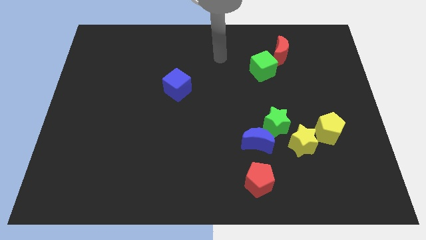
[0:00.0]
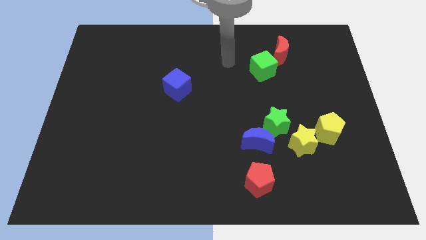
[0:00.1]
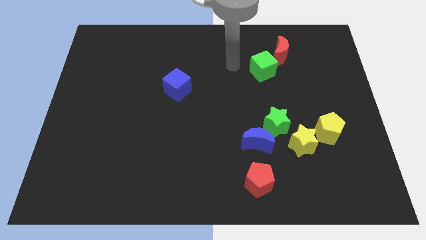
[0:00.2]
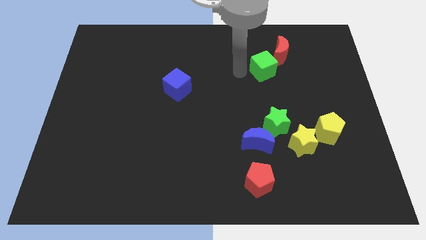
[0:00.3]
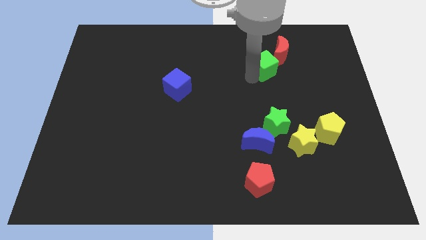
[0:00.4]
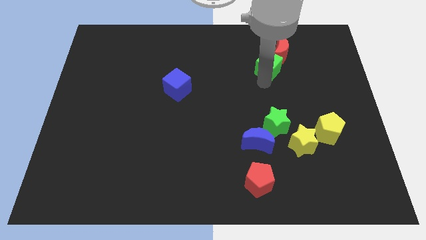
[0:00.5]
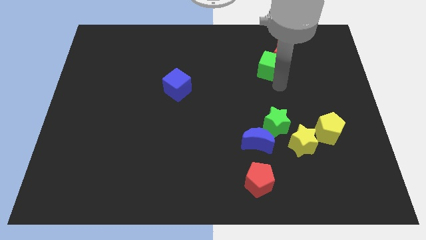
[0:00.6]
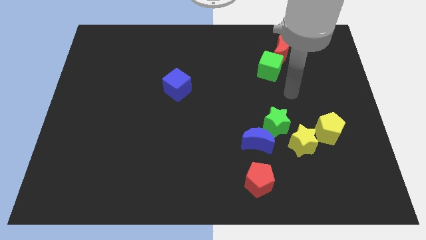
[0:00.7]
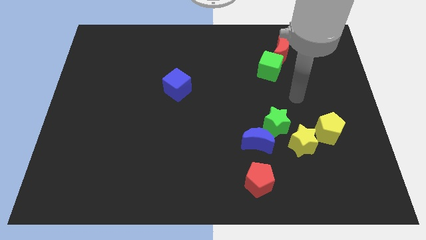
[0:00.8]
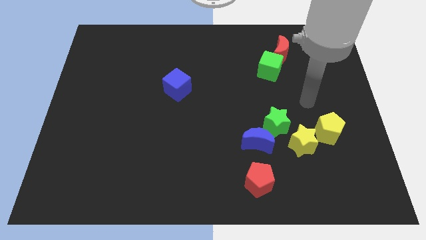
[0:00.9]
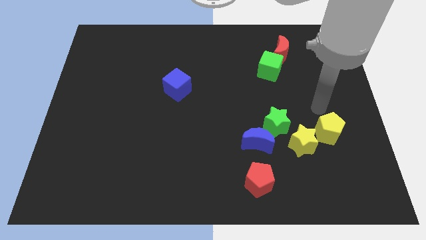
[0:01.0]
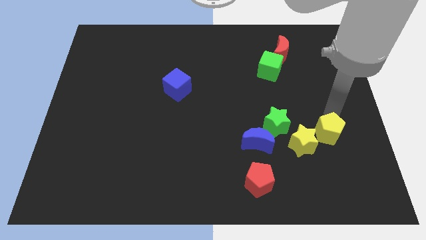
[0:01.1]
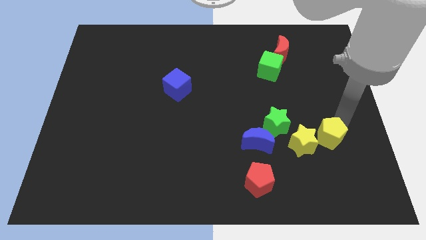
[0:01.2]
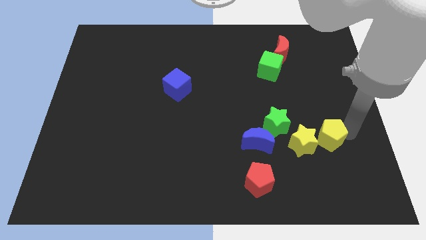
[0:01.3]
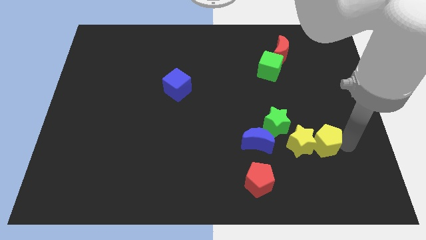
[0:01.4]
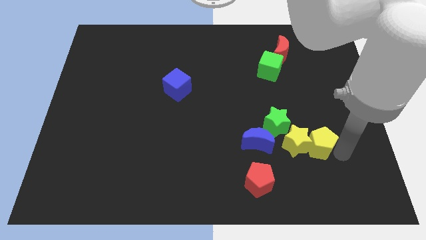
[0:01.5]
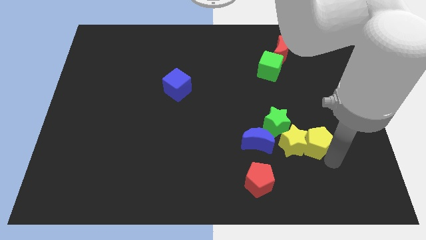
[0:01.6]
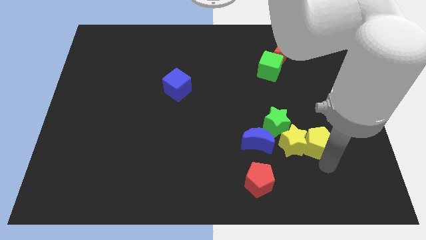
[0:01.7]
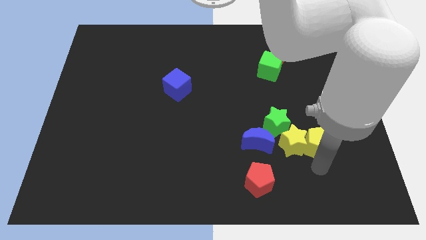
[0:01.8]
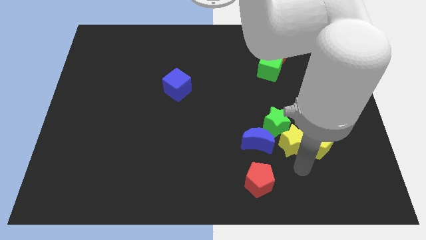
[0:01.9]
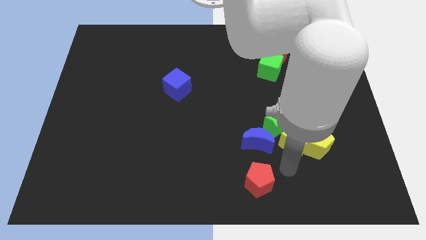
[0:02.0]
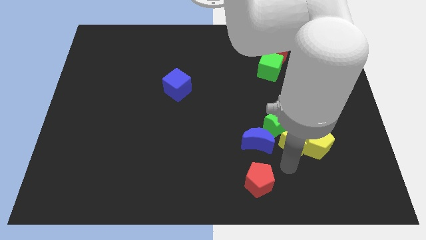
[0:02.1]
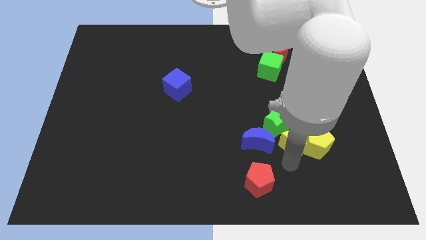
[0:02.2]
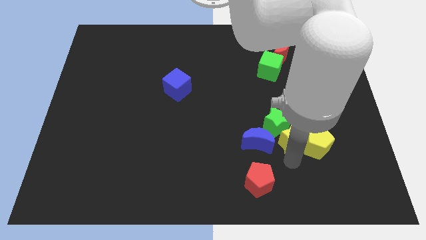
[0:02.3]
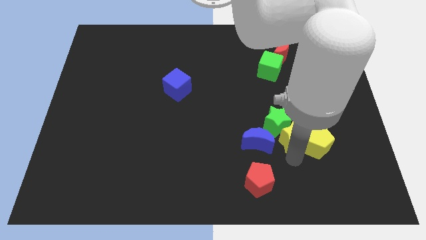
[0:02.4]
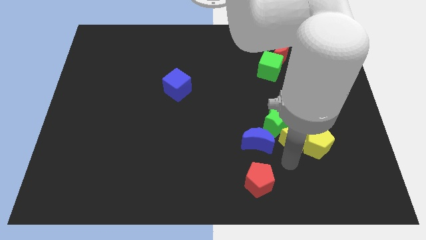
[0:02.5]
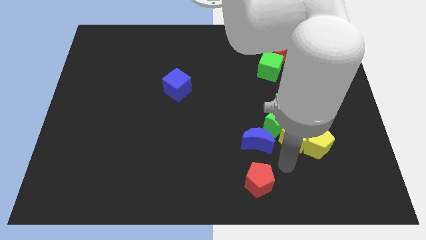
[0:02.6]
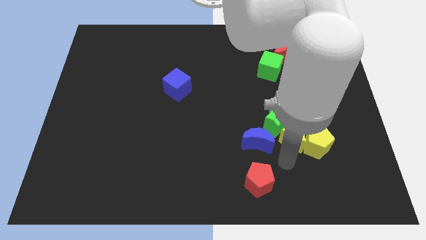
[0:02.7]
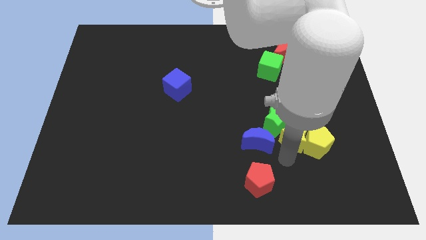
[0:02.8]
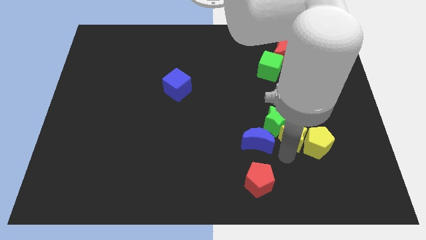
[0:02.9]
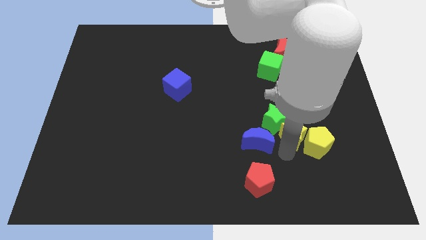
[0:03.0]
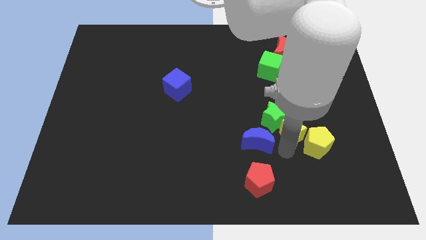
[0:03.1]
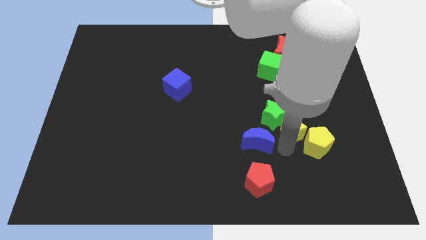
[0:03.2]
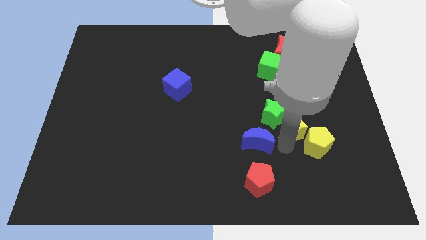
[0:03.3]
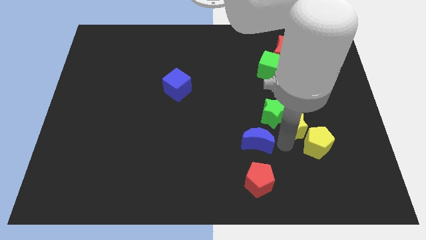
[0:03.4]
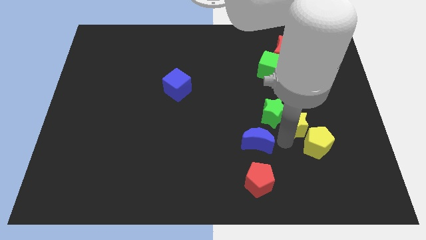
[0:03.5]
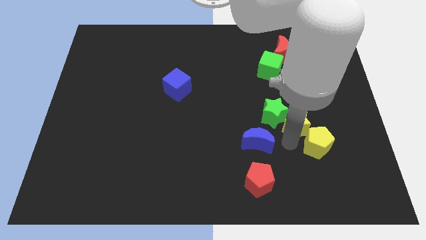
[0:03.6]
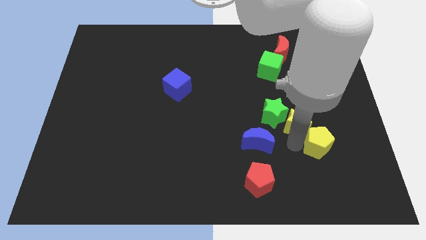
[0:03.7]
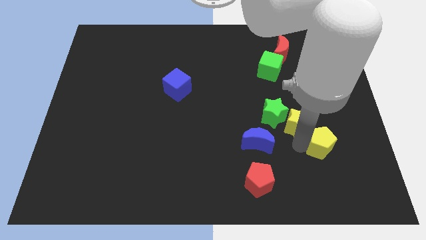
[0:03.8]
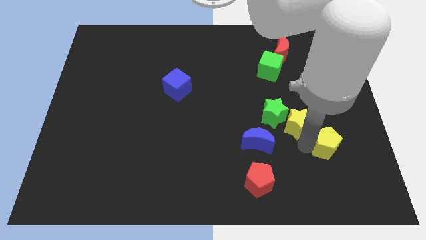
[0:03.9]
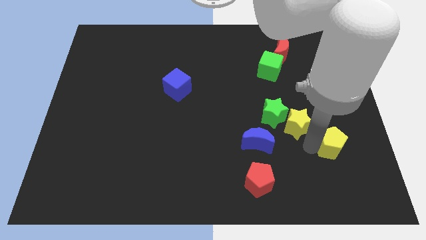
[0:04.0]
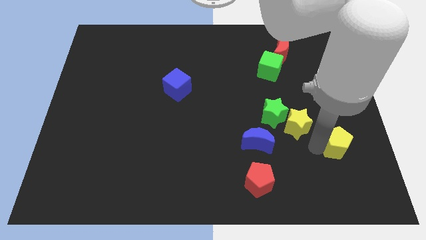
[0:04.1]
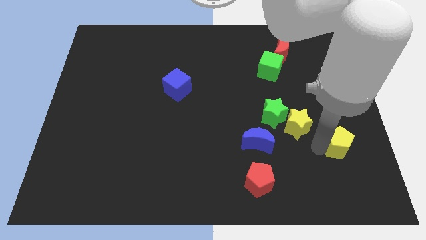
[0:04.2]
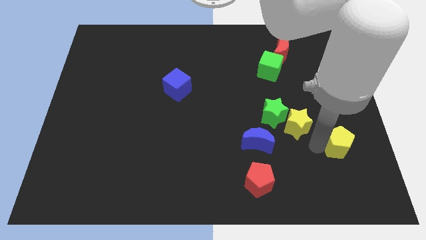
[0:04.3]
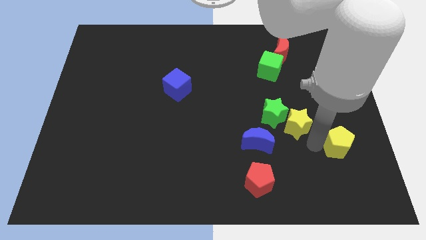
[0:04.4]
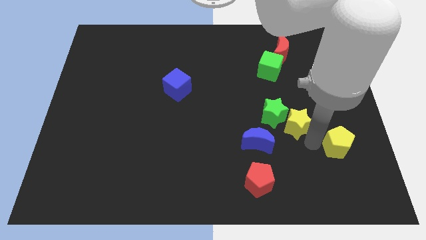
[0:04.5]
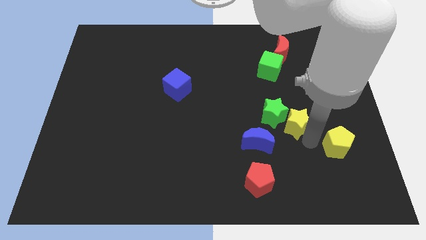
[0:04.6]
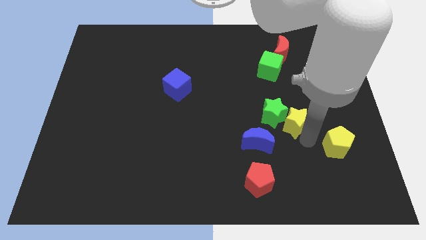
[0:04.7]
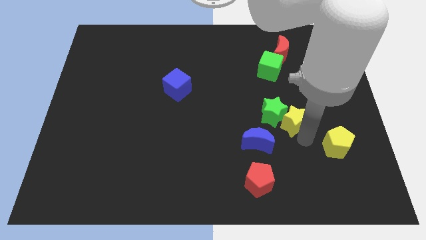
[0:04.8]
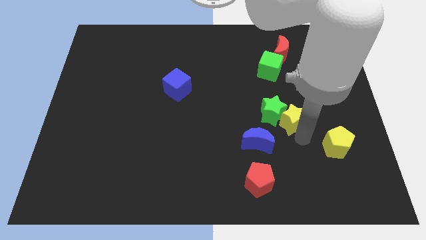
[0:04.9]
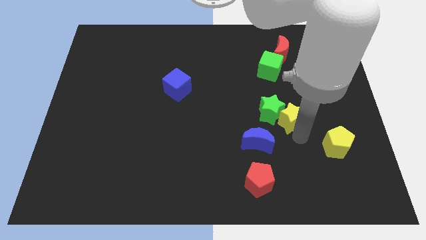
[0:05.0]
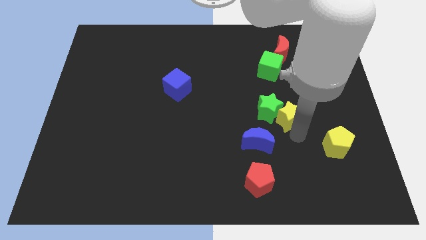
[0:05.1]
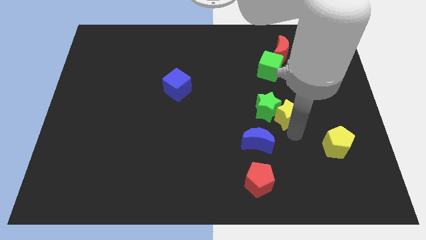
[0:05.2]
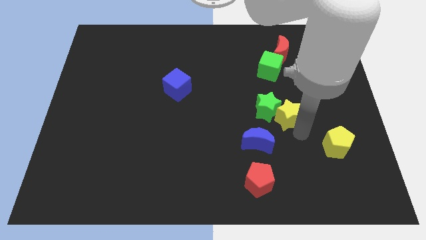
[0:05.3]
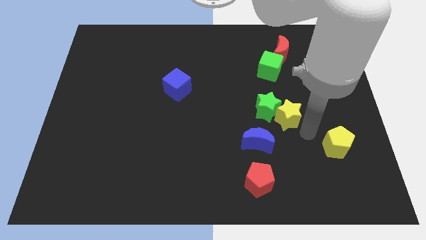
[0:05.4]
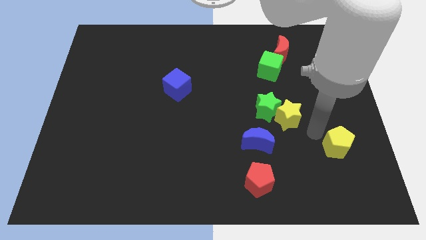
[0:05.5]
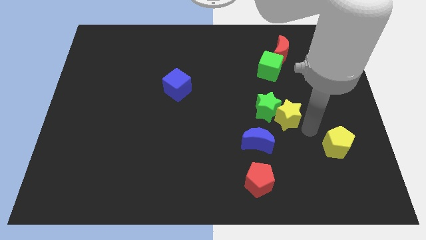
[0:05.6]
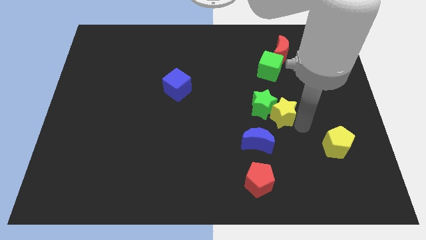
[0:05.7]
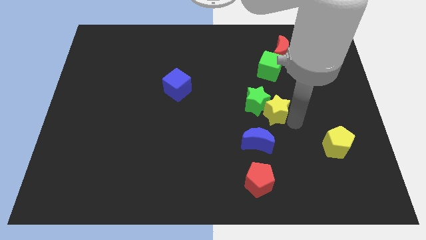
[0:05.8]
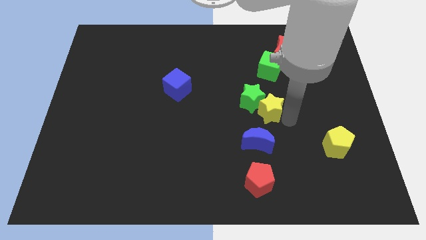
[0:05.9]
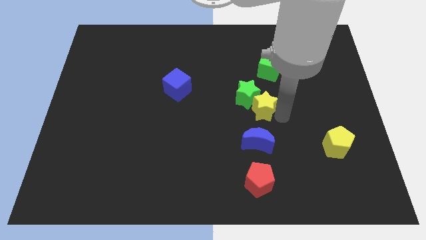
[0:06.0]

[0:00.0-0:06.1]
put the yellow star to the middle
